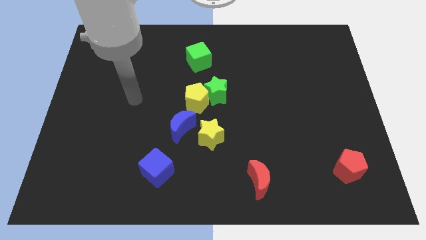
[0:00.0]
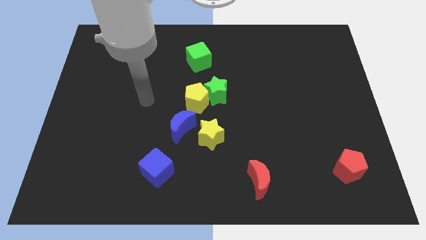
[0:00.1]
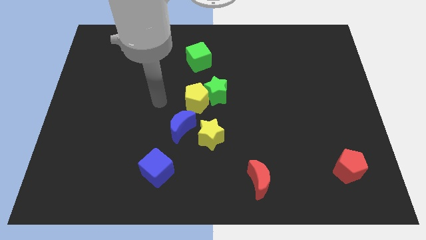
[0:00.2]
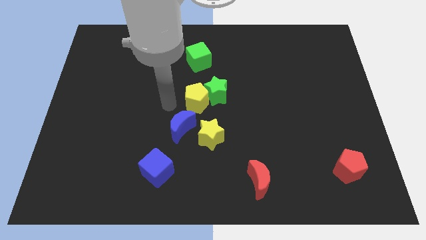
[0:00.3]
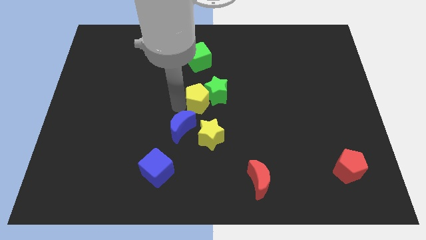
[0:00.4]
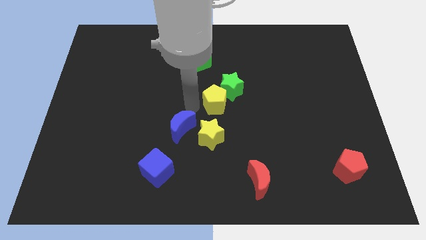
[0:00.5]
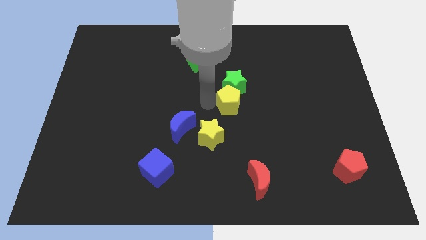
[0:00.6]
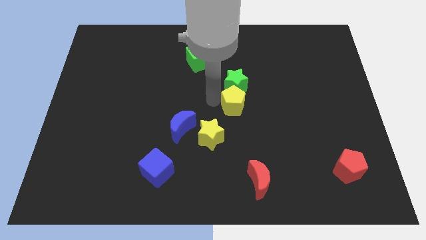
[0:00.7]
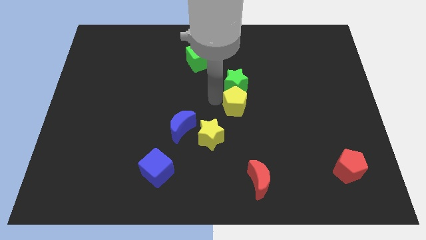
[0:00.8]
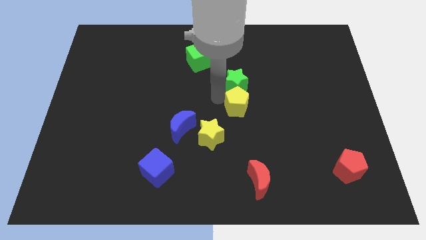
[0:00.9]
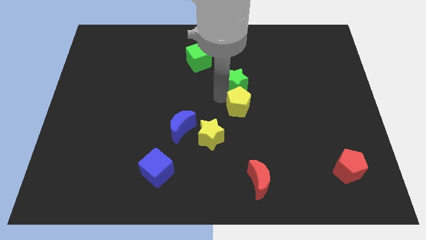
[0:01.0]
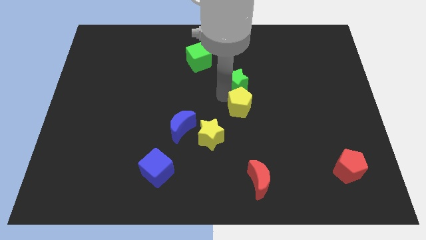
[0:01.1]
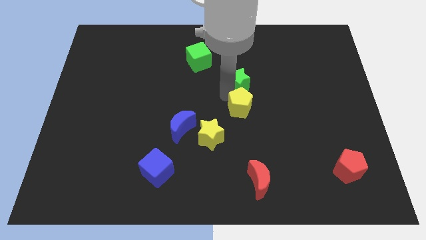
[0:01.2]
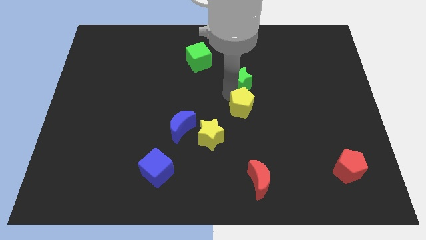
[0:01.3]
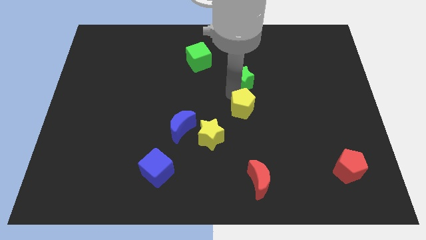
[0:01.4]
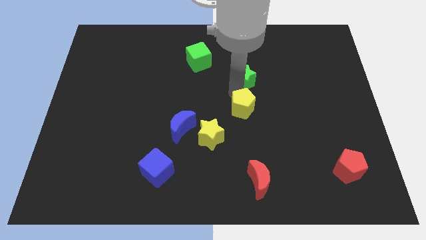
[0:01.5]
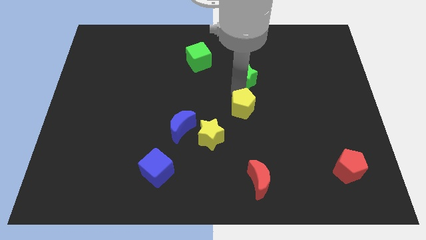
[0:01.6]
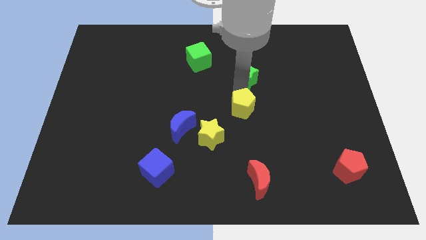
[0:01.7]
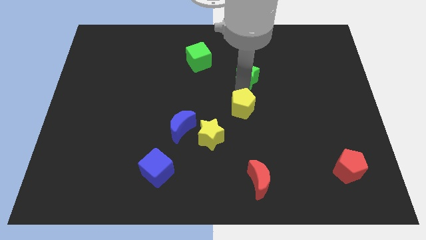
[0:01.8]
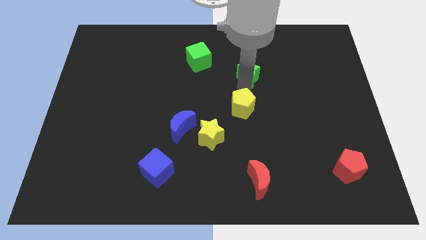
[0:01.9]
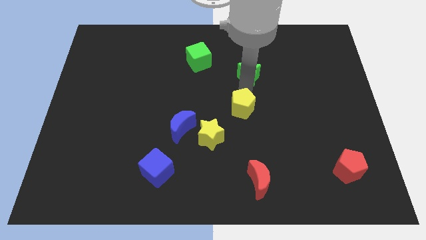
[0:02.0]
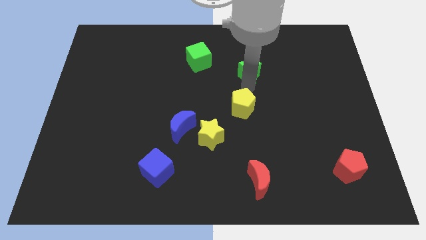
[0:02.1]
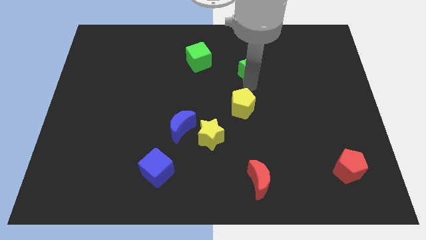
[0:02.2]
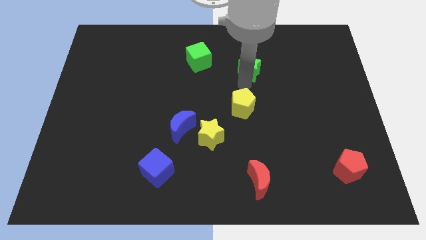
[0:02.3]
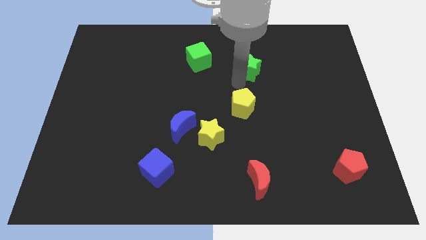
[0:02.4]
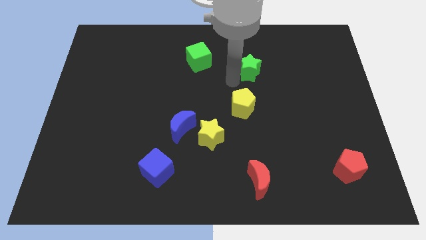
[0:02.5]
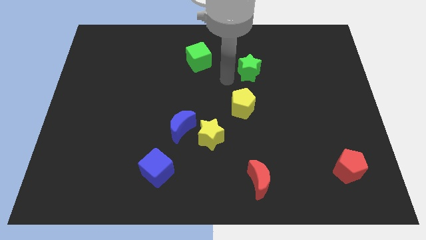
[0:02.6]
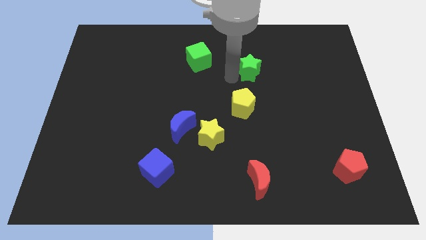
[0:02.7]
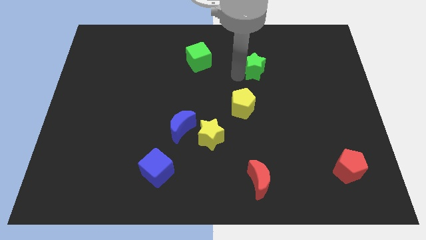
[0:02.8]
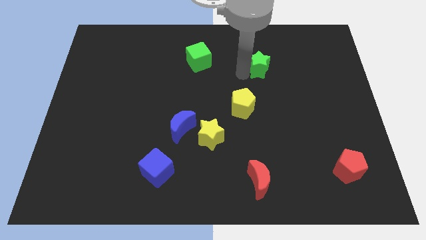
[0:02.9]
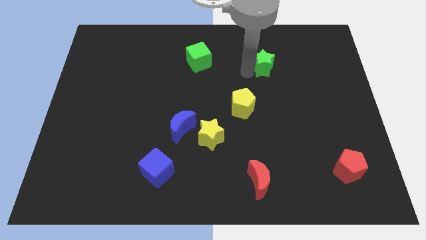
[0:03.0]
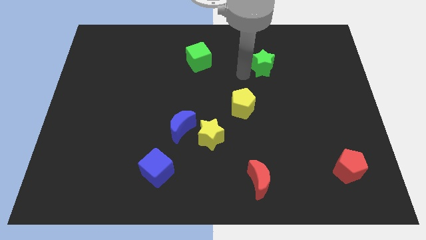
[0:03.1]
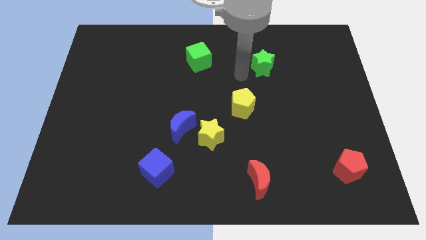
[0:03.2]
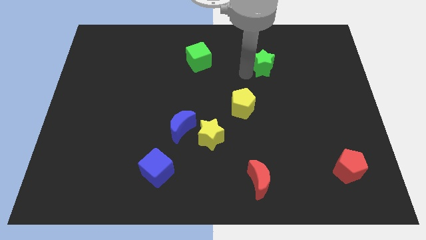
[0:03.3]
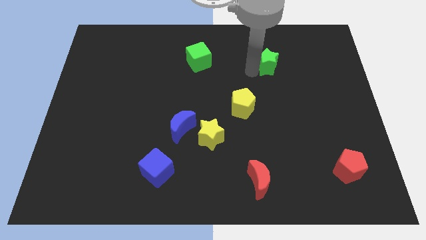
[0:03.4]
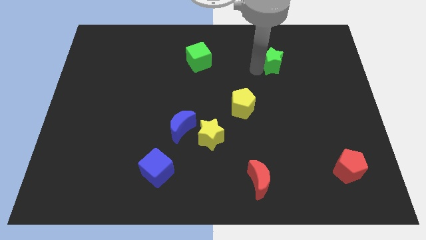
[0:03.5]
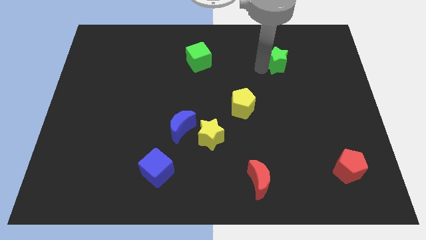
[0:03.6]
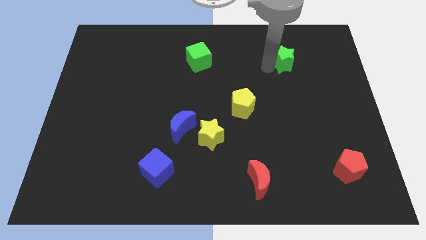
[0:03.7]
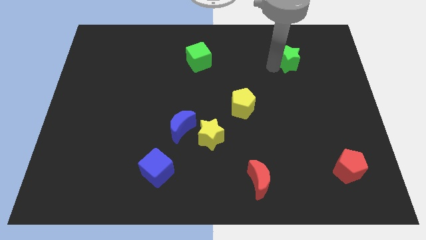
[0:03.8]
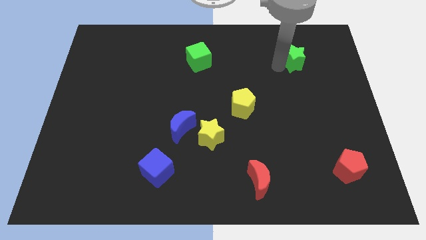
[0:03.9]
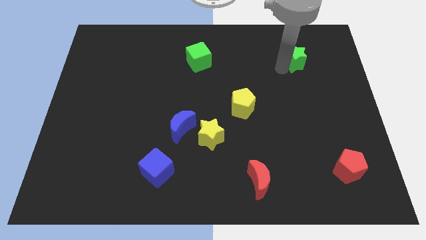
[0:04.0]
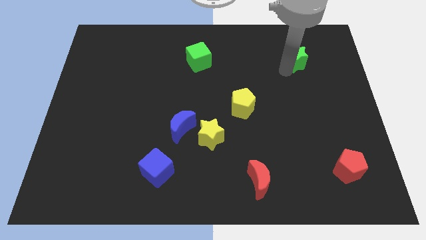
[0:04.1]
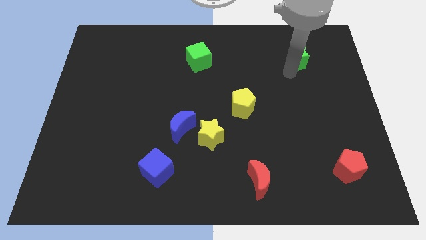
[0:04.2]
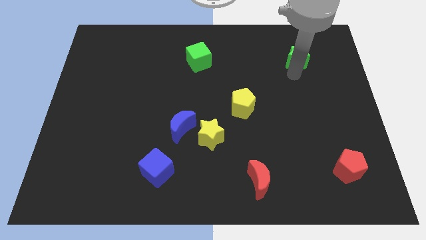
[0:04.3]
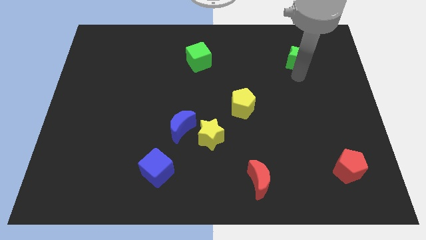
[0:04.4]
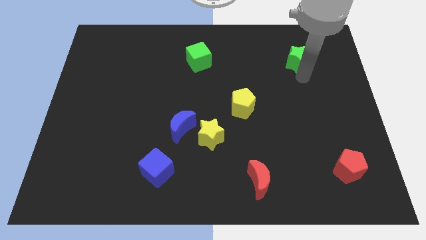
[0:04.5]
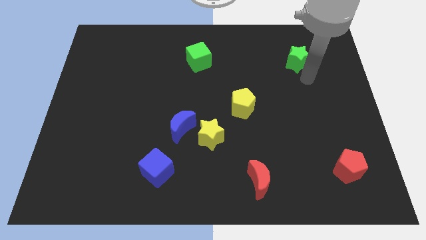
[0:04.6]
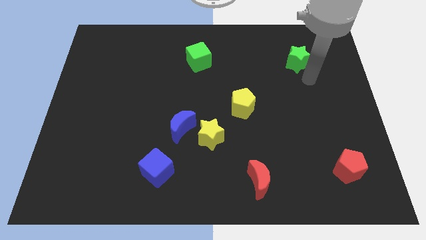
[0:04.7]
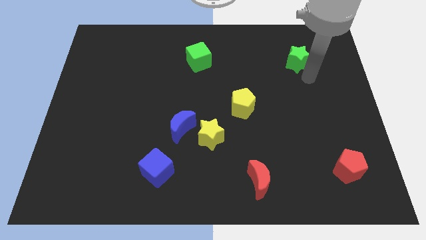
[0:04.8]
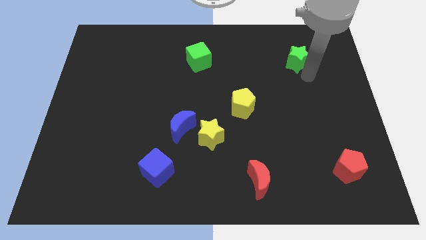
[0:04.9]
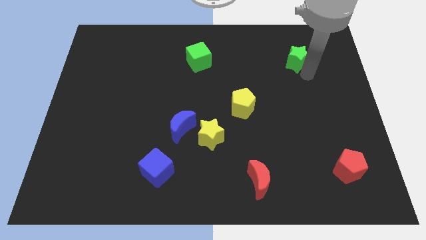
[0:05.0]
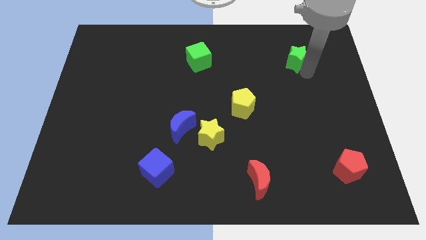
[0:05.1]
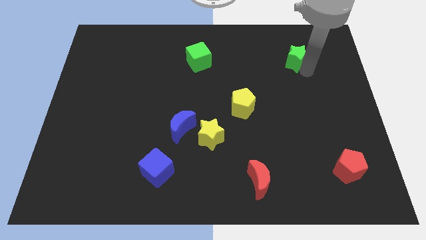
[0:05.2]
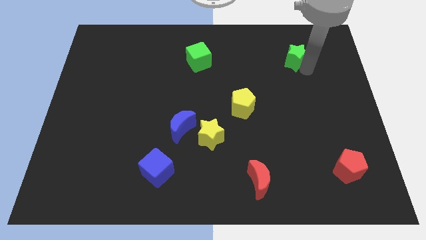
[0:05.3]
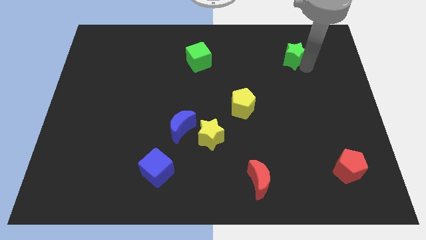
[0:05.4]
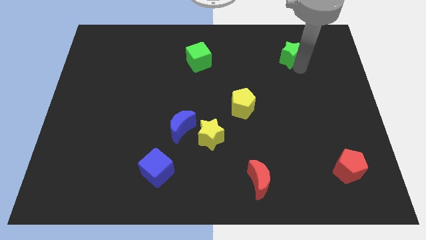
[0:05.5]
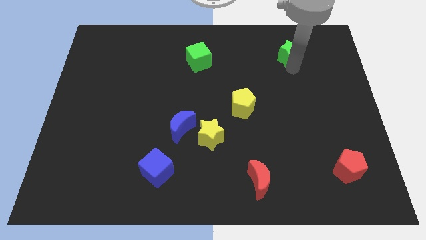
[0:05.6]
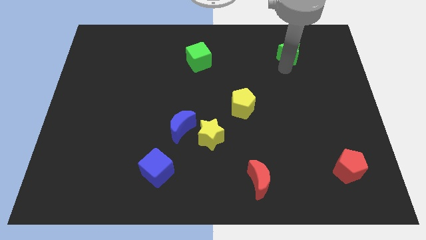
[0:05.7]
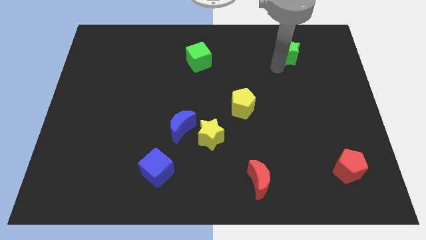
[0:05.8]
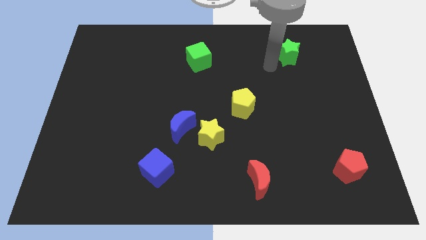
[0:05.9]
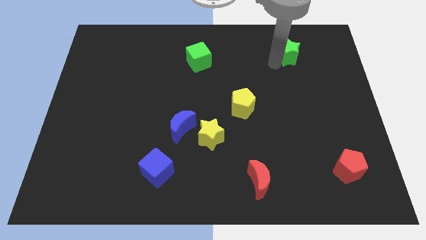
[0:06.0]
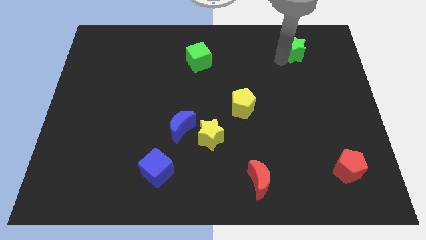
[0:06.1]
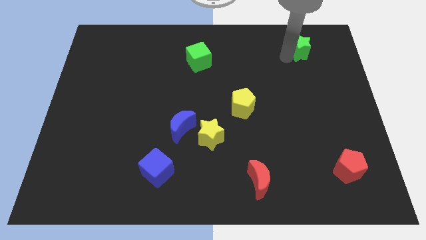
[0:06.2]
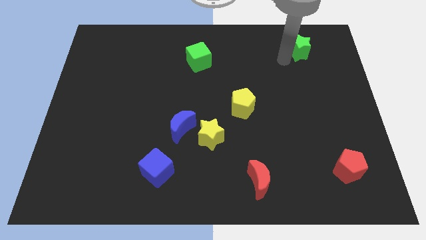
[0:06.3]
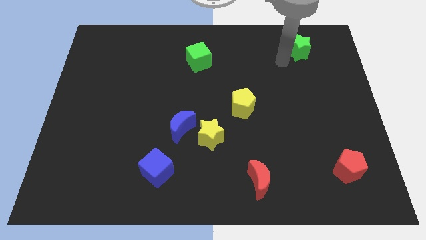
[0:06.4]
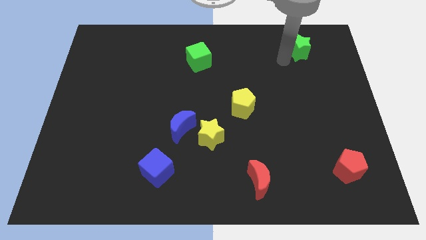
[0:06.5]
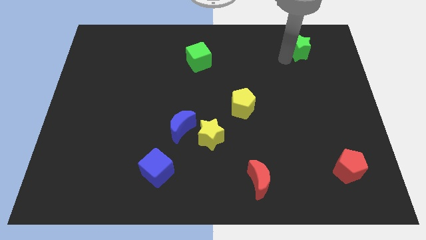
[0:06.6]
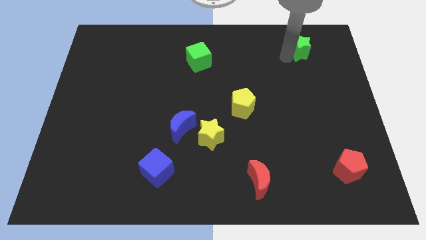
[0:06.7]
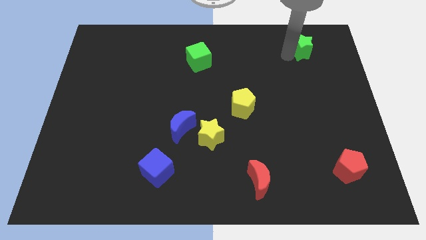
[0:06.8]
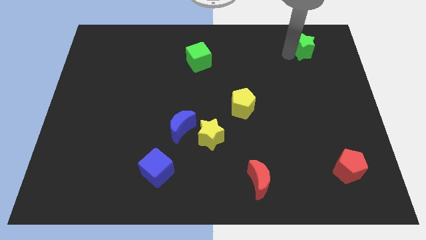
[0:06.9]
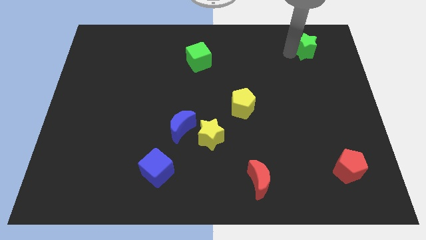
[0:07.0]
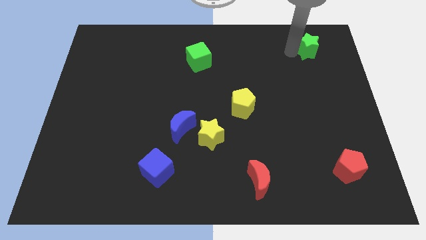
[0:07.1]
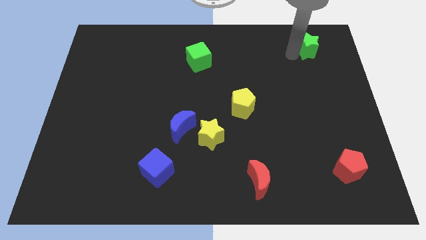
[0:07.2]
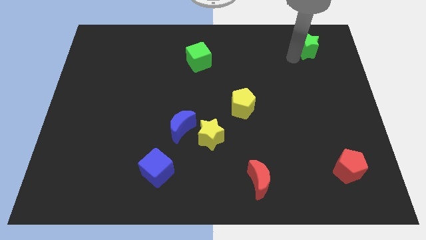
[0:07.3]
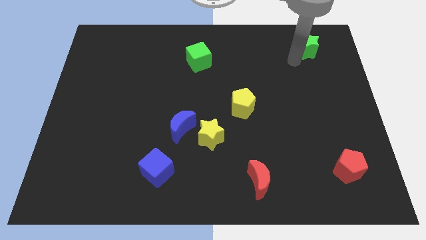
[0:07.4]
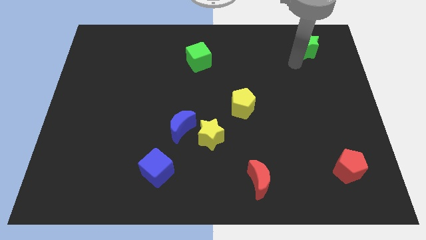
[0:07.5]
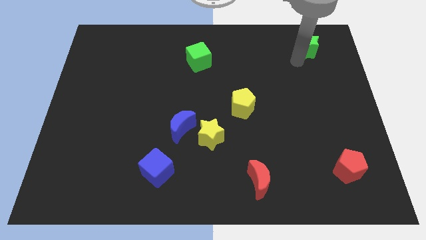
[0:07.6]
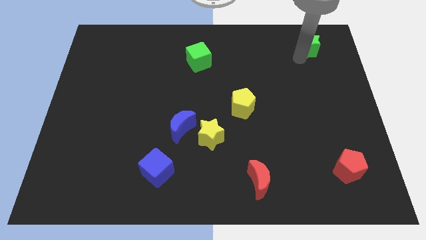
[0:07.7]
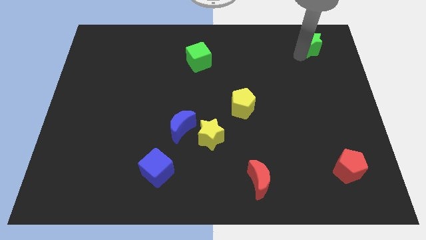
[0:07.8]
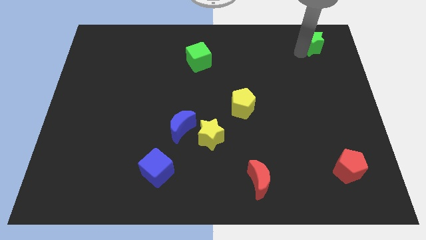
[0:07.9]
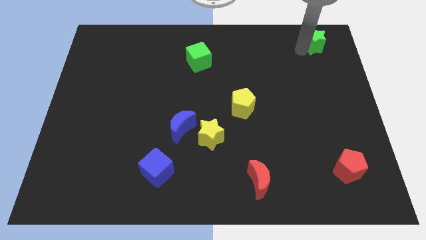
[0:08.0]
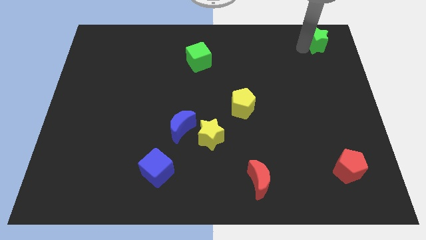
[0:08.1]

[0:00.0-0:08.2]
move the green star to the upper right corner

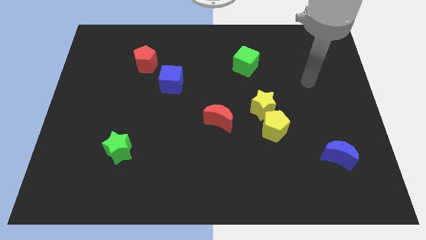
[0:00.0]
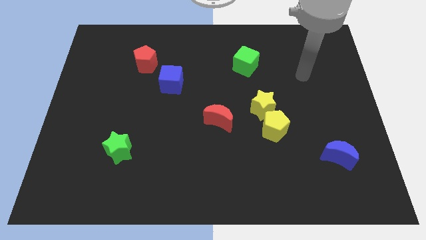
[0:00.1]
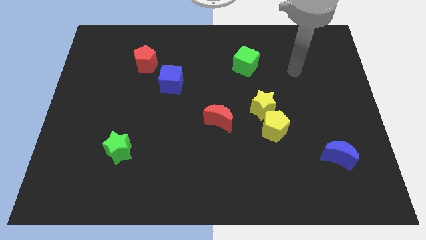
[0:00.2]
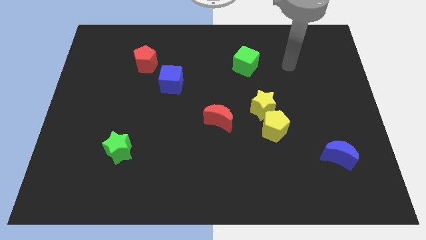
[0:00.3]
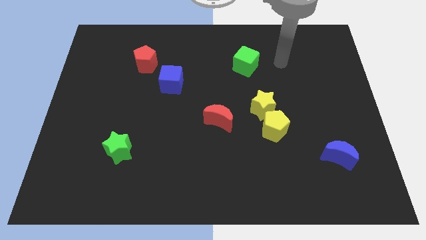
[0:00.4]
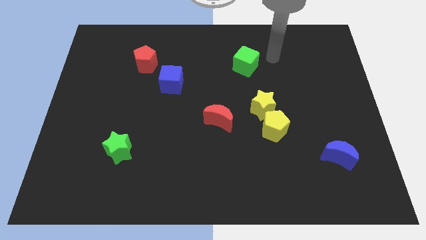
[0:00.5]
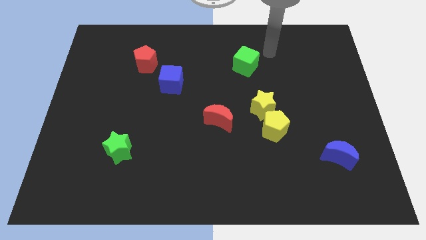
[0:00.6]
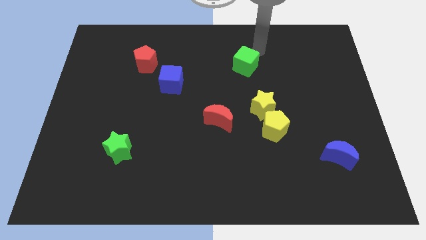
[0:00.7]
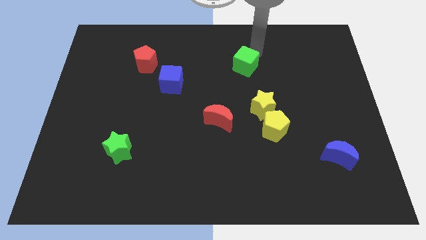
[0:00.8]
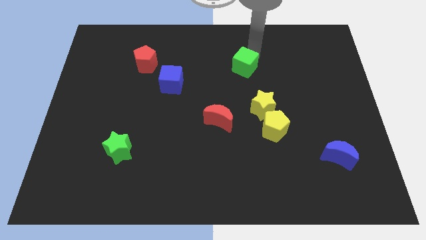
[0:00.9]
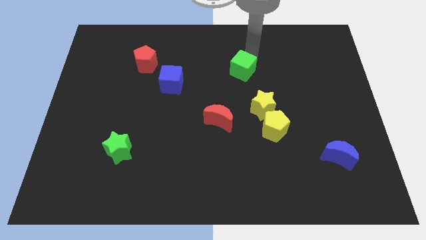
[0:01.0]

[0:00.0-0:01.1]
put the green cube to the center
